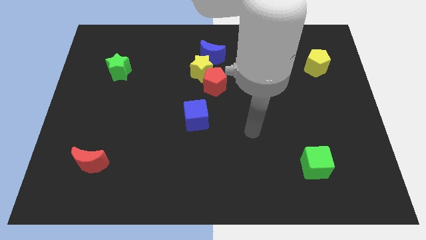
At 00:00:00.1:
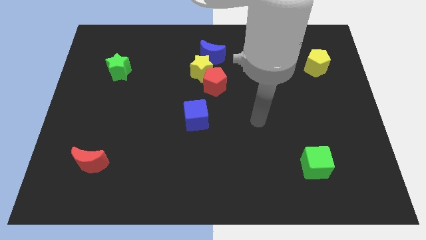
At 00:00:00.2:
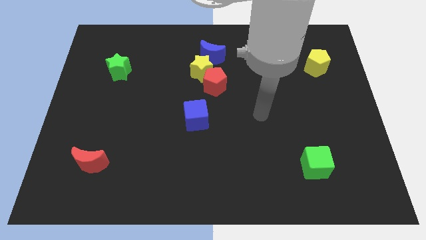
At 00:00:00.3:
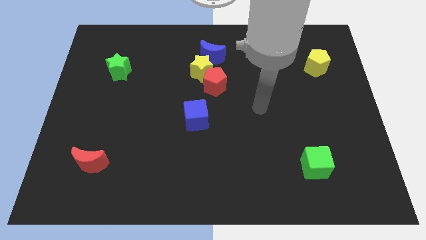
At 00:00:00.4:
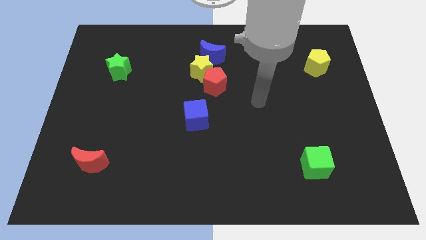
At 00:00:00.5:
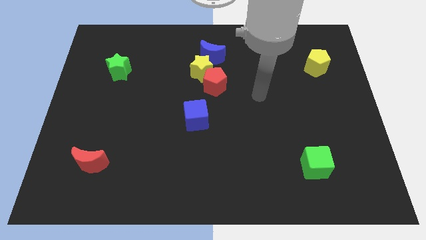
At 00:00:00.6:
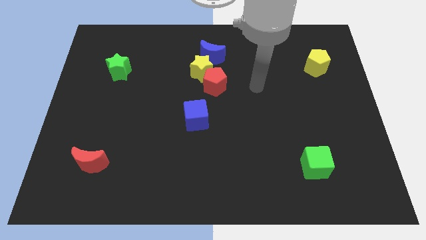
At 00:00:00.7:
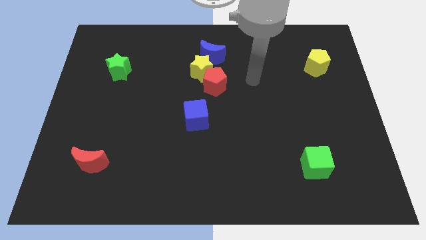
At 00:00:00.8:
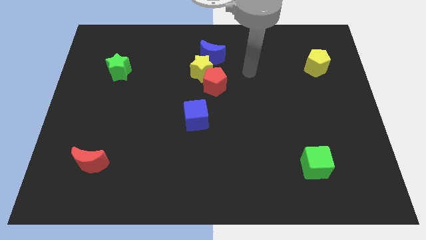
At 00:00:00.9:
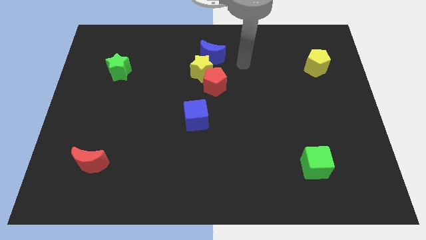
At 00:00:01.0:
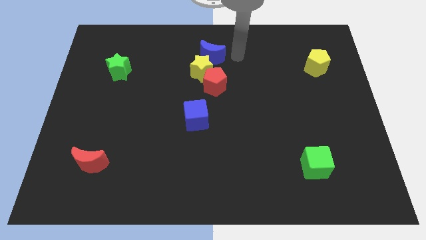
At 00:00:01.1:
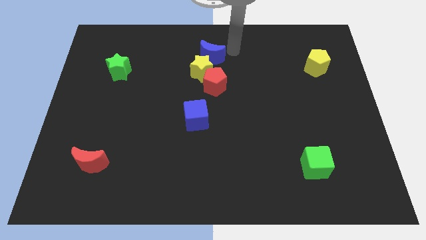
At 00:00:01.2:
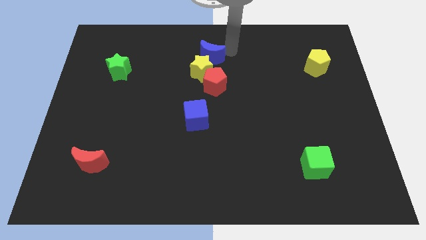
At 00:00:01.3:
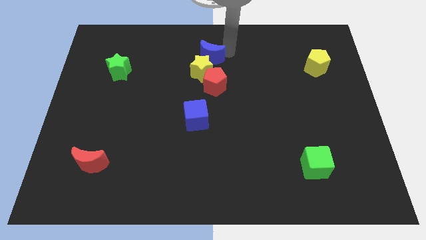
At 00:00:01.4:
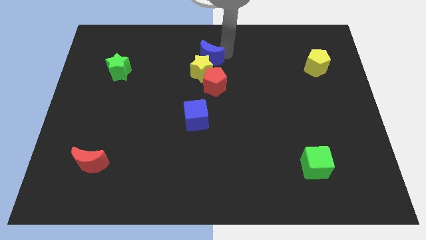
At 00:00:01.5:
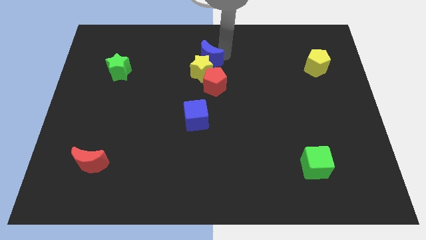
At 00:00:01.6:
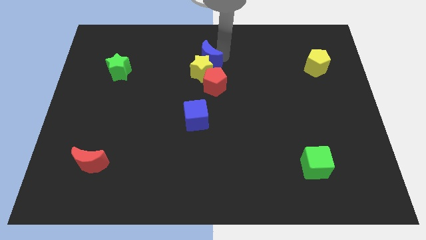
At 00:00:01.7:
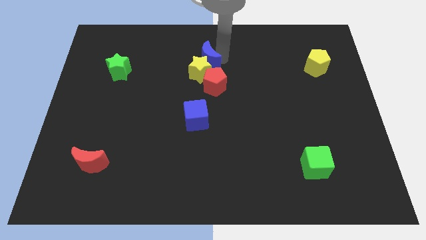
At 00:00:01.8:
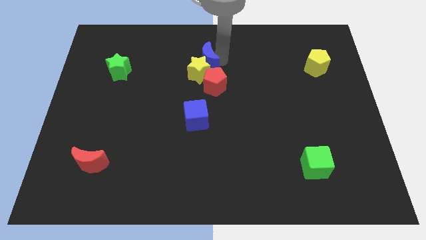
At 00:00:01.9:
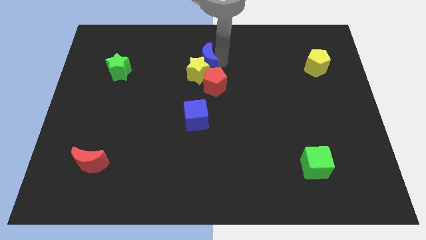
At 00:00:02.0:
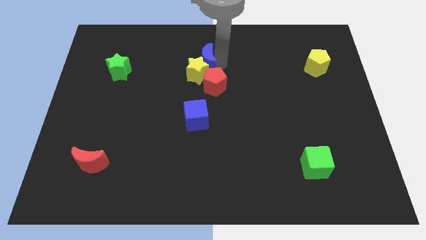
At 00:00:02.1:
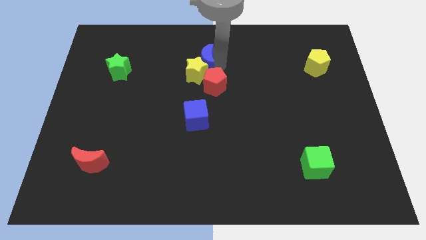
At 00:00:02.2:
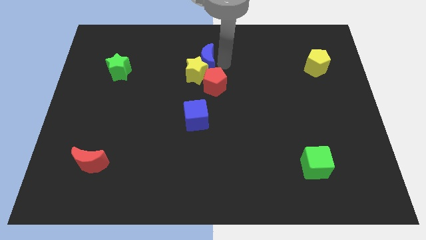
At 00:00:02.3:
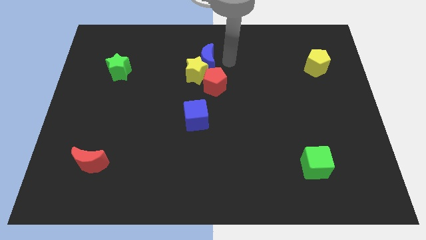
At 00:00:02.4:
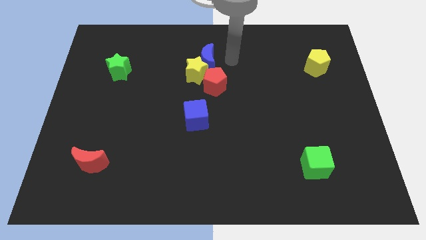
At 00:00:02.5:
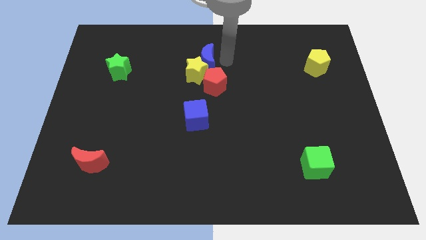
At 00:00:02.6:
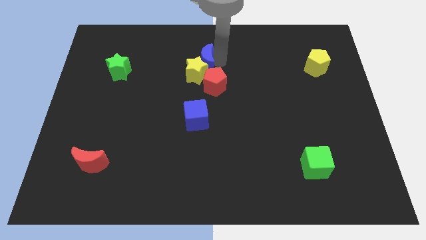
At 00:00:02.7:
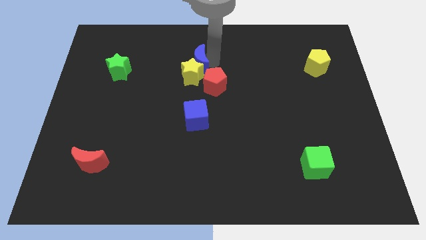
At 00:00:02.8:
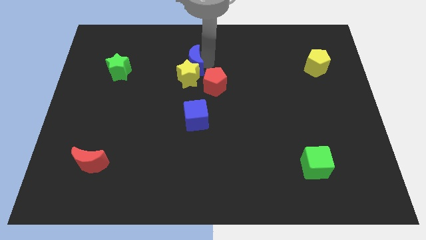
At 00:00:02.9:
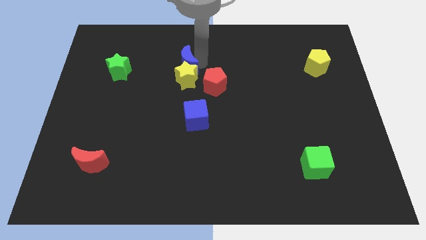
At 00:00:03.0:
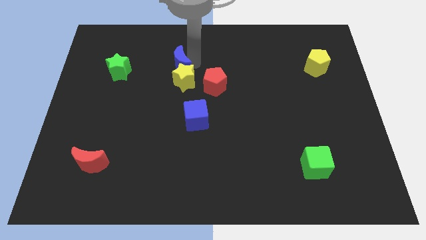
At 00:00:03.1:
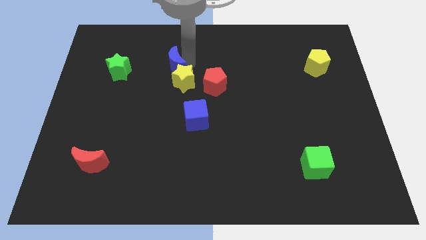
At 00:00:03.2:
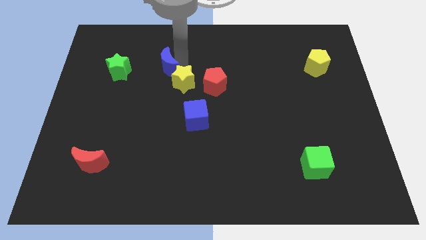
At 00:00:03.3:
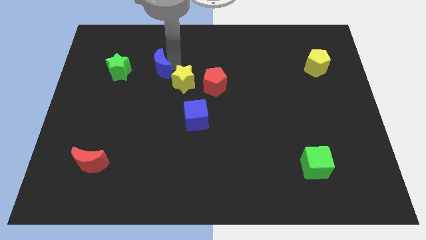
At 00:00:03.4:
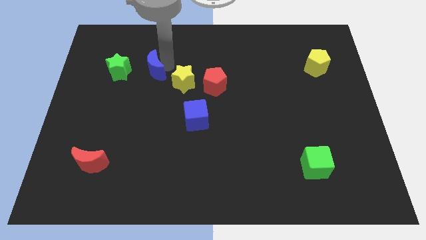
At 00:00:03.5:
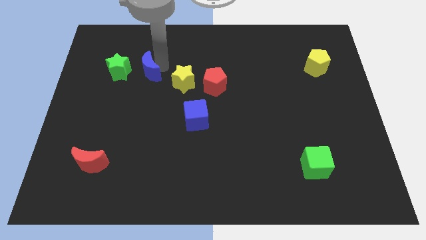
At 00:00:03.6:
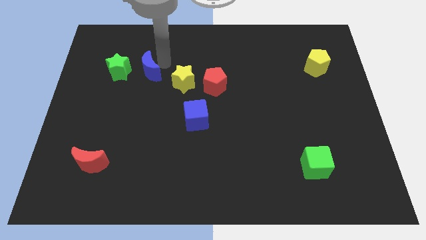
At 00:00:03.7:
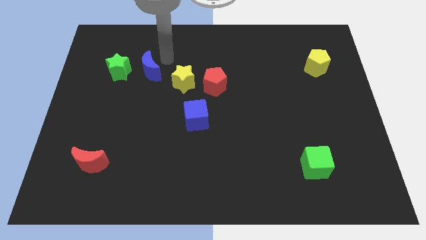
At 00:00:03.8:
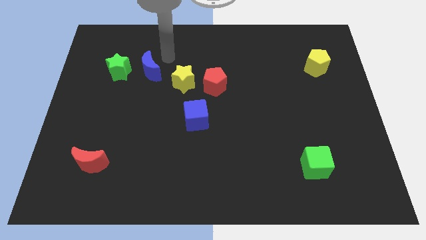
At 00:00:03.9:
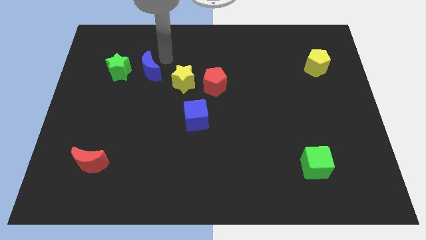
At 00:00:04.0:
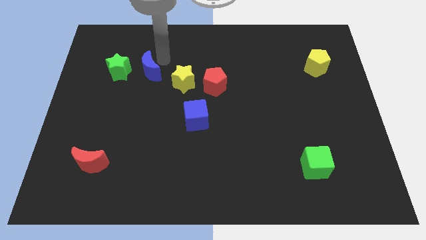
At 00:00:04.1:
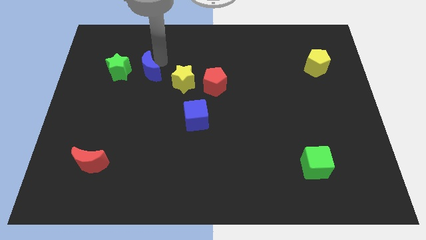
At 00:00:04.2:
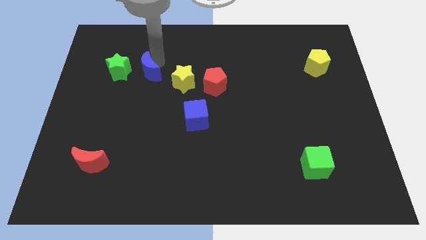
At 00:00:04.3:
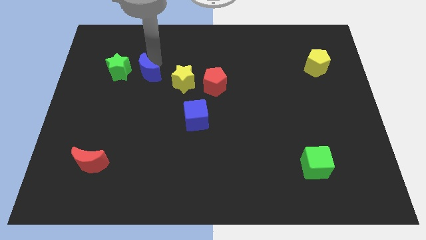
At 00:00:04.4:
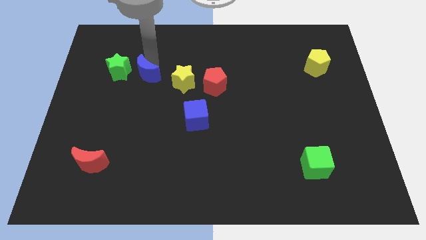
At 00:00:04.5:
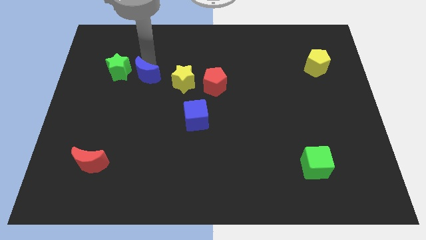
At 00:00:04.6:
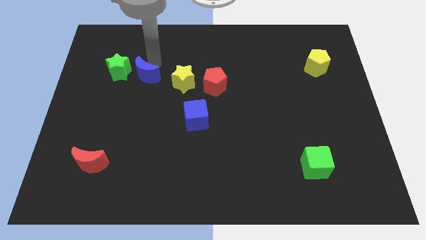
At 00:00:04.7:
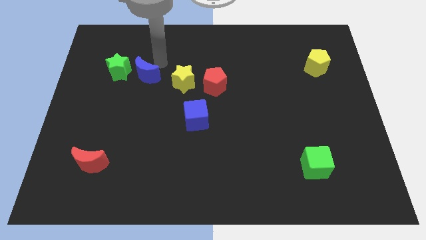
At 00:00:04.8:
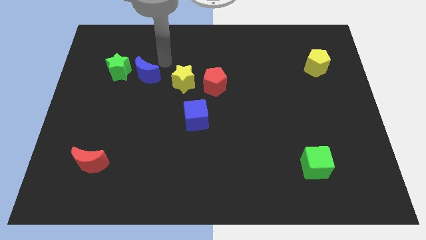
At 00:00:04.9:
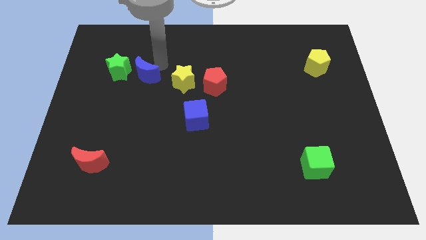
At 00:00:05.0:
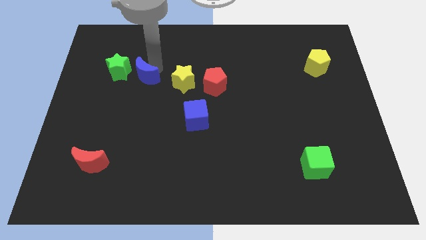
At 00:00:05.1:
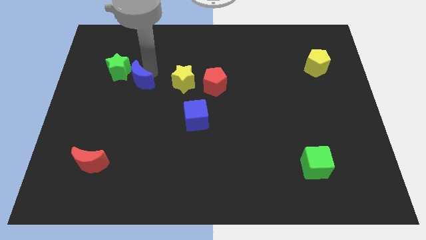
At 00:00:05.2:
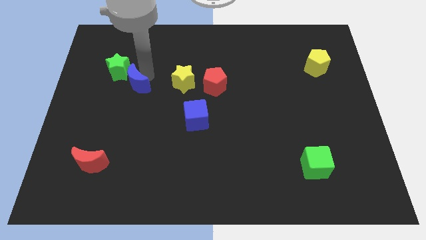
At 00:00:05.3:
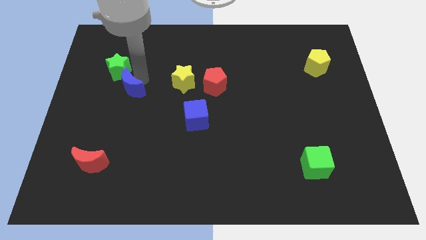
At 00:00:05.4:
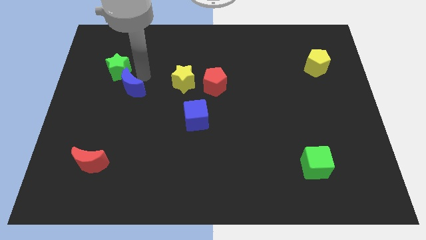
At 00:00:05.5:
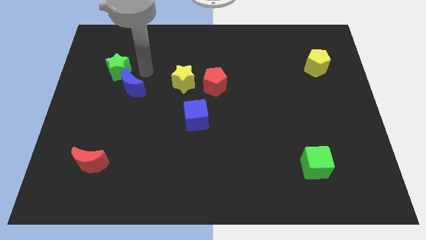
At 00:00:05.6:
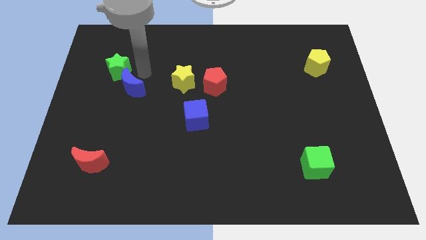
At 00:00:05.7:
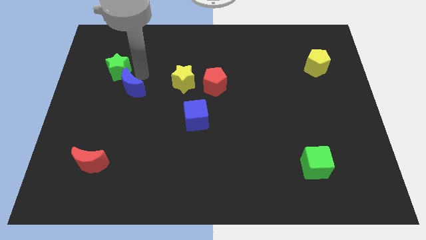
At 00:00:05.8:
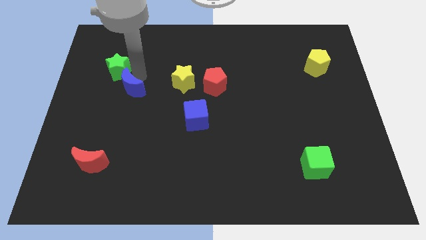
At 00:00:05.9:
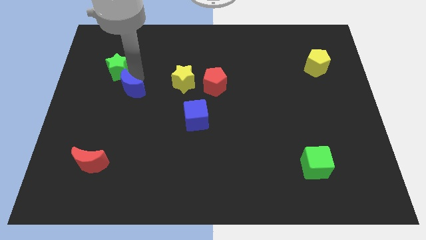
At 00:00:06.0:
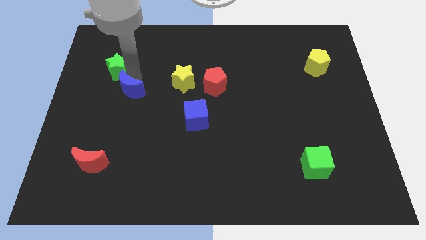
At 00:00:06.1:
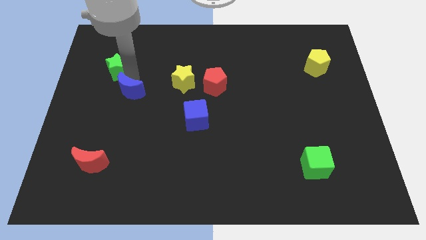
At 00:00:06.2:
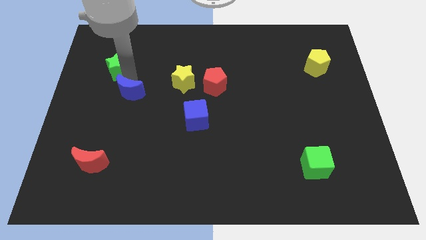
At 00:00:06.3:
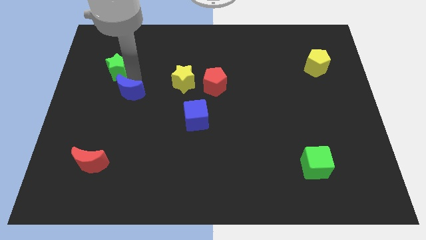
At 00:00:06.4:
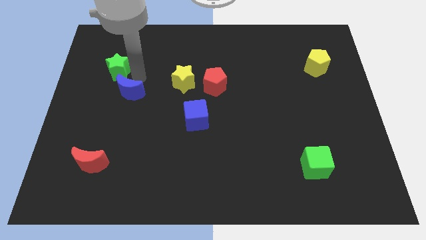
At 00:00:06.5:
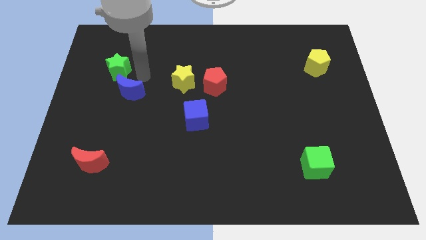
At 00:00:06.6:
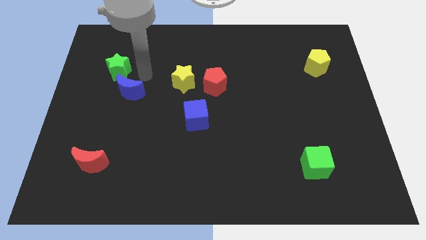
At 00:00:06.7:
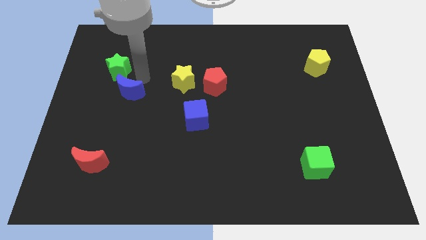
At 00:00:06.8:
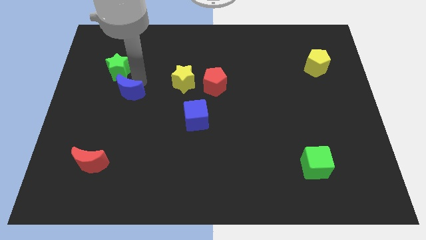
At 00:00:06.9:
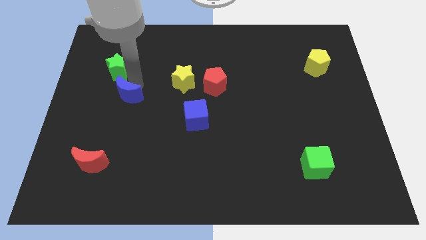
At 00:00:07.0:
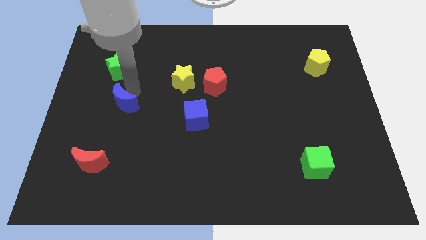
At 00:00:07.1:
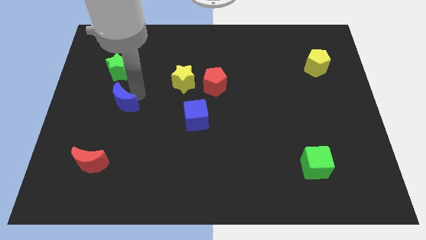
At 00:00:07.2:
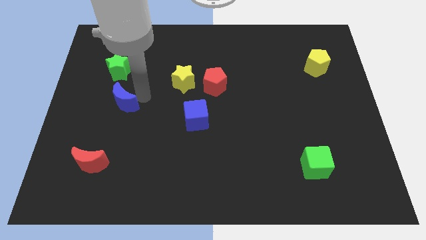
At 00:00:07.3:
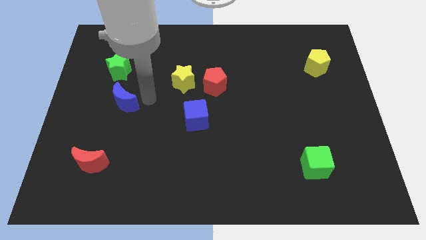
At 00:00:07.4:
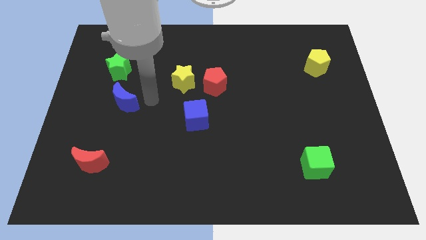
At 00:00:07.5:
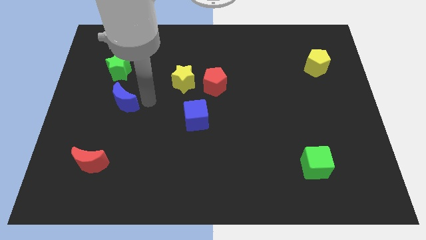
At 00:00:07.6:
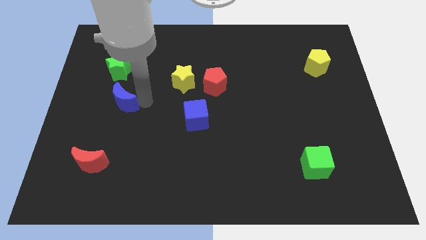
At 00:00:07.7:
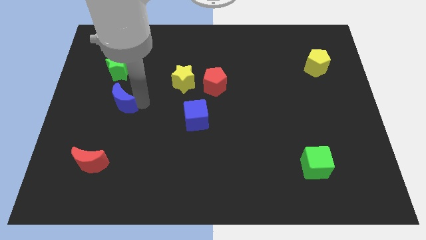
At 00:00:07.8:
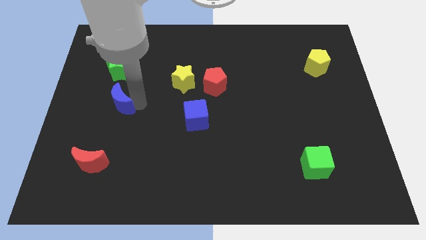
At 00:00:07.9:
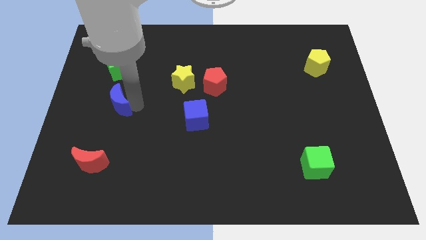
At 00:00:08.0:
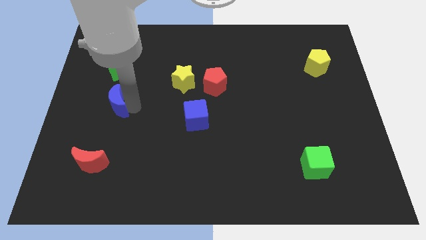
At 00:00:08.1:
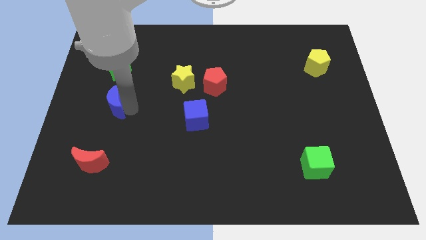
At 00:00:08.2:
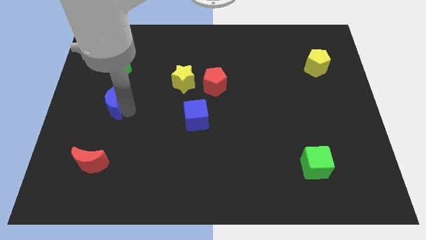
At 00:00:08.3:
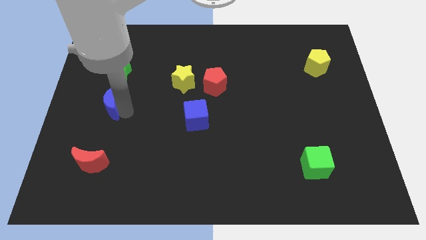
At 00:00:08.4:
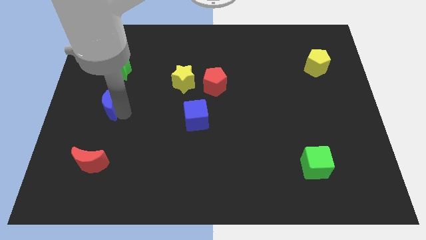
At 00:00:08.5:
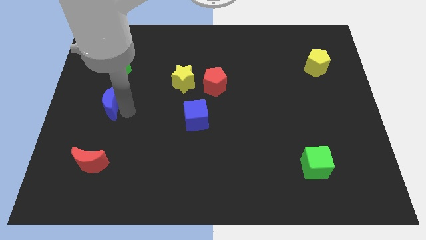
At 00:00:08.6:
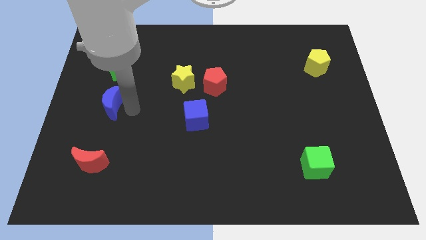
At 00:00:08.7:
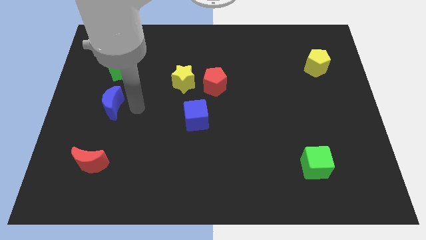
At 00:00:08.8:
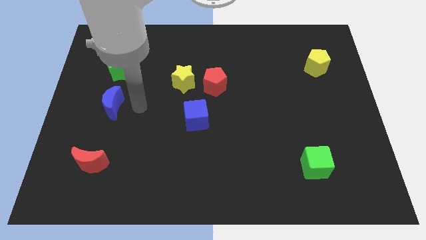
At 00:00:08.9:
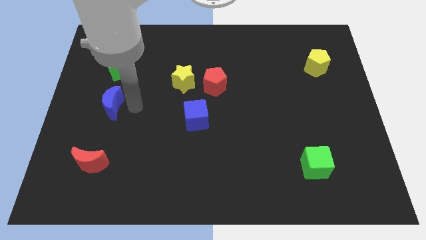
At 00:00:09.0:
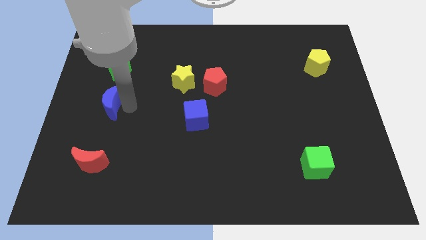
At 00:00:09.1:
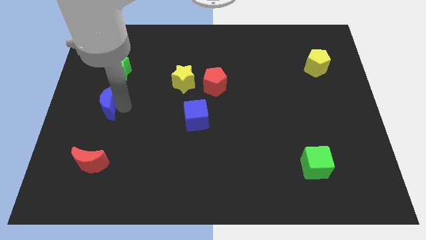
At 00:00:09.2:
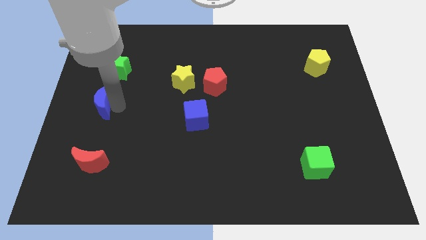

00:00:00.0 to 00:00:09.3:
put the blue moon to the center left
